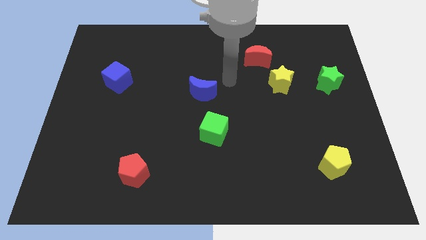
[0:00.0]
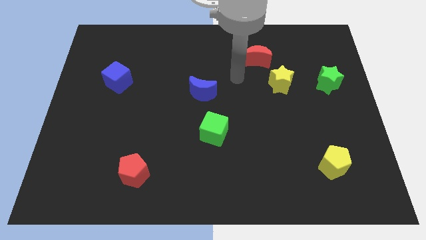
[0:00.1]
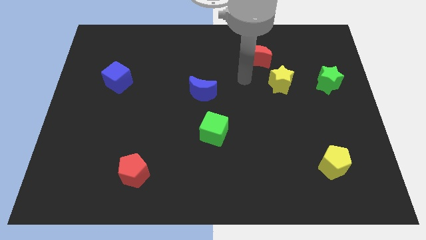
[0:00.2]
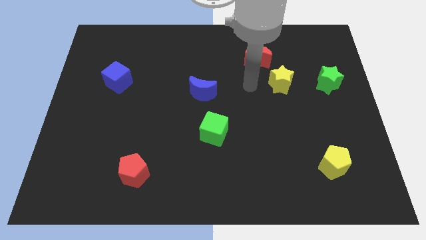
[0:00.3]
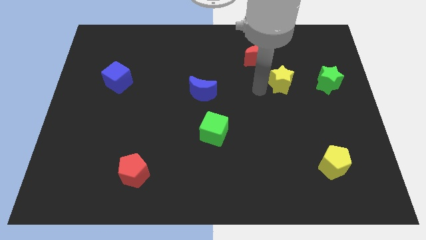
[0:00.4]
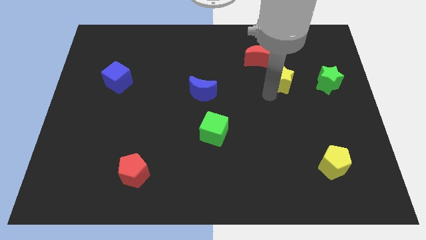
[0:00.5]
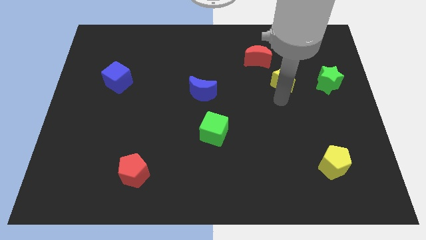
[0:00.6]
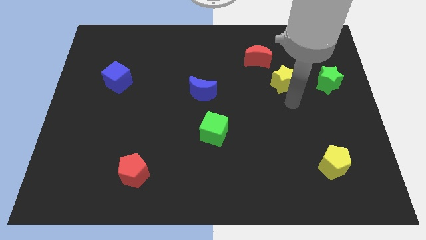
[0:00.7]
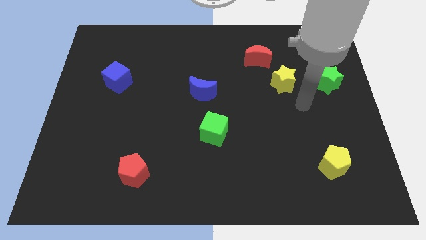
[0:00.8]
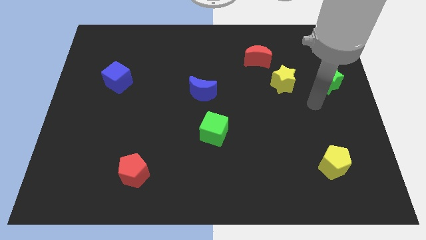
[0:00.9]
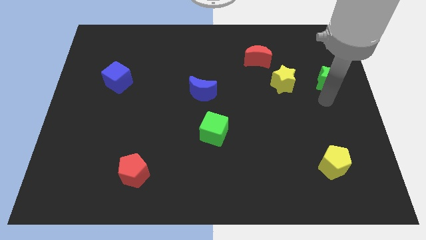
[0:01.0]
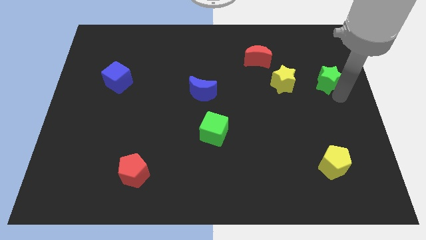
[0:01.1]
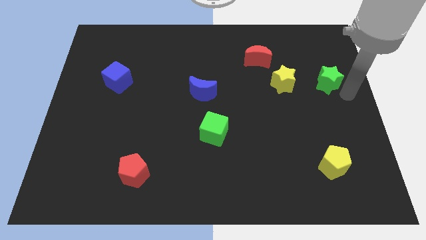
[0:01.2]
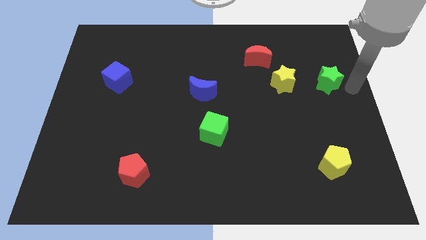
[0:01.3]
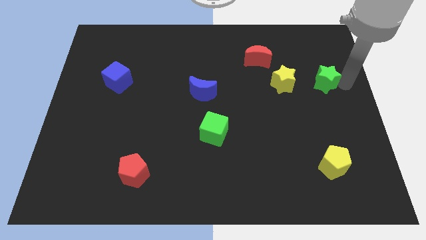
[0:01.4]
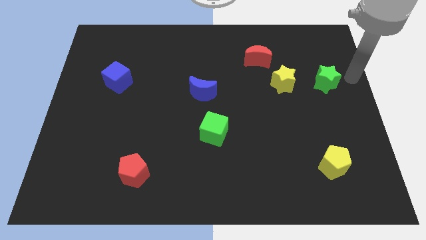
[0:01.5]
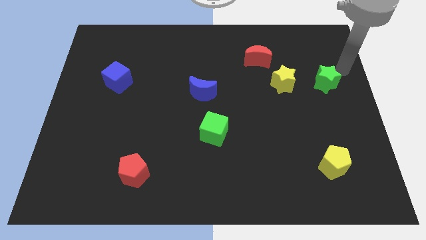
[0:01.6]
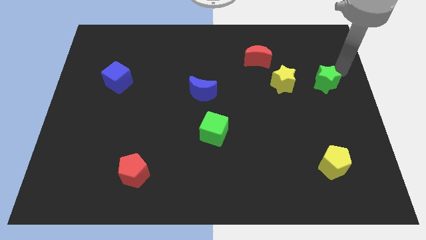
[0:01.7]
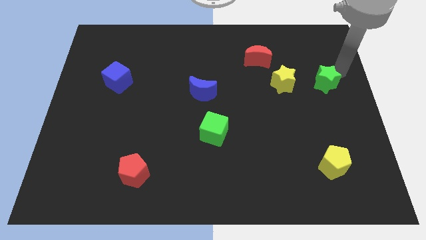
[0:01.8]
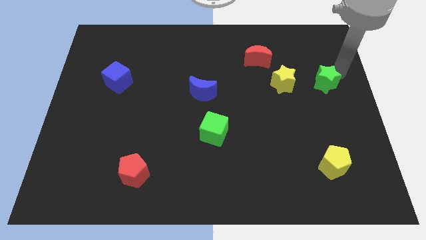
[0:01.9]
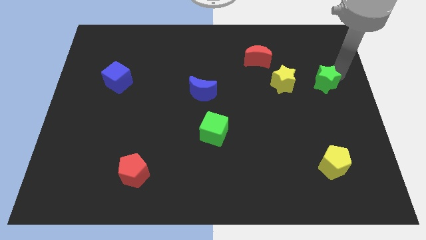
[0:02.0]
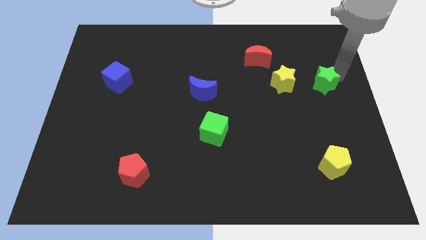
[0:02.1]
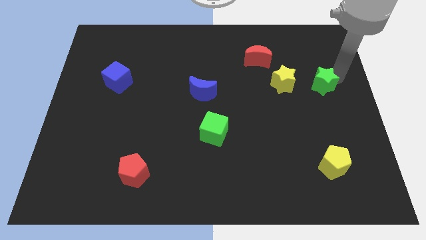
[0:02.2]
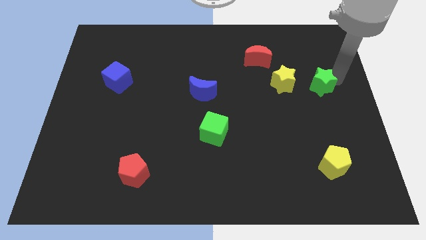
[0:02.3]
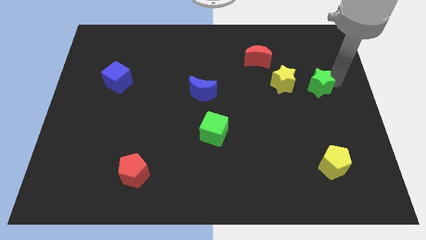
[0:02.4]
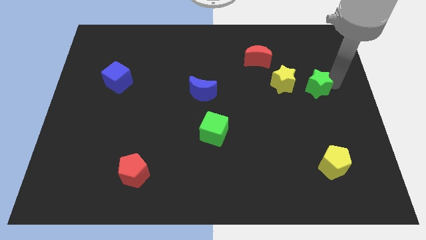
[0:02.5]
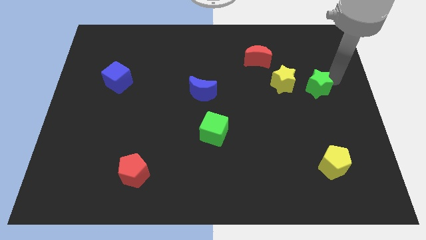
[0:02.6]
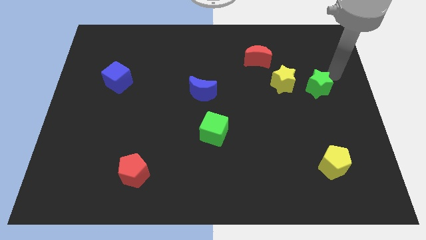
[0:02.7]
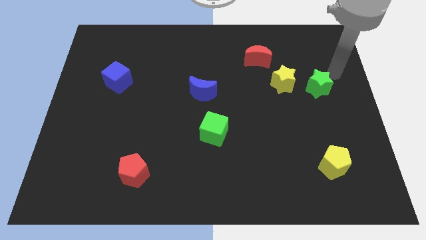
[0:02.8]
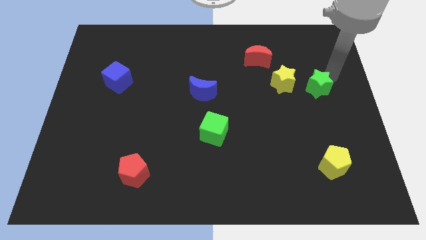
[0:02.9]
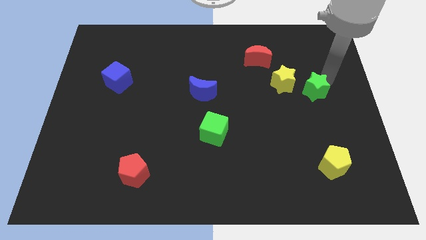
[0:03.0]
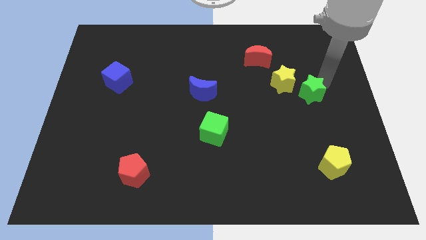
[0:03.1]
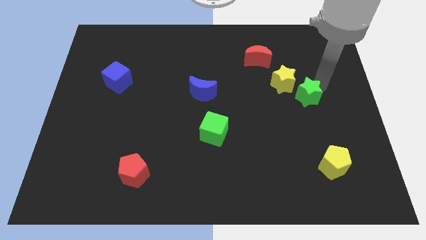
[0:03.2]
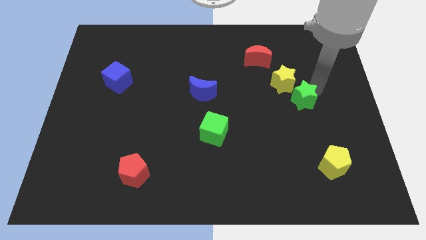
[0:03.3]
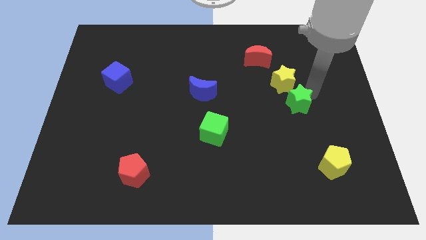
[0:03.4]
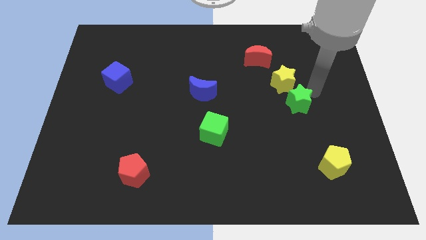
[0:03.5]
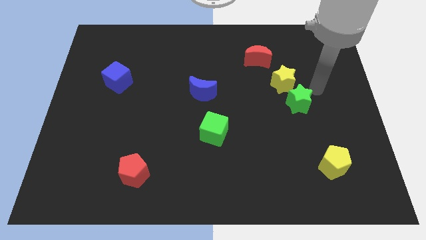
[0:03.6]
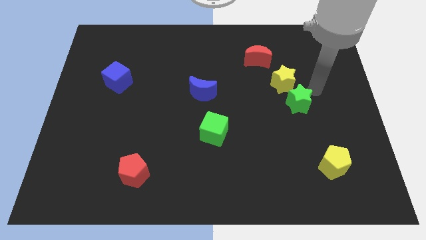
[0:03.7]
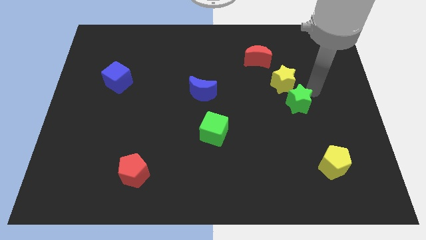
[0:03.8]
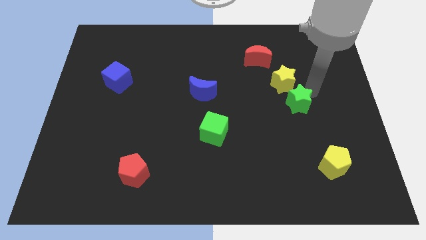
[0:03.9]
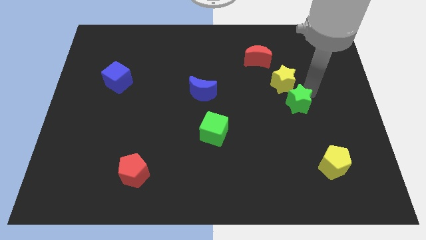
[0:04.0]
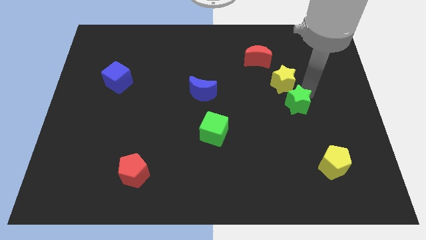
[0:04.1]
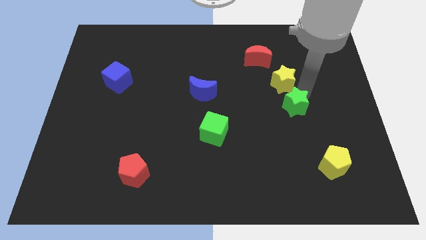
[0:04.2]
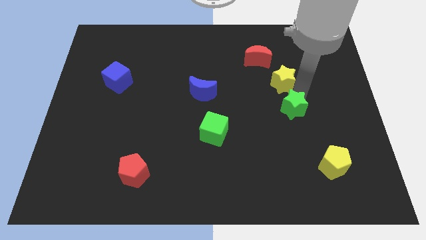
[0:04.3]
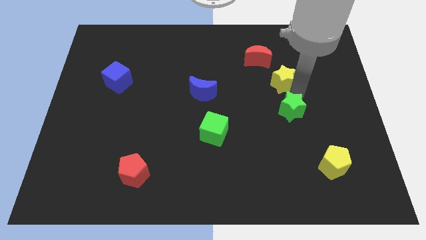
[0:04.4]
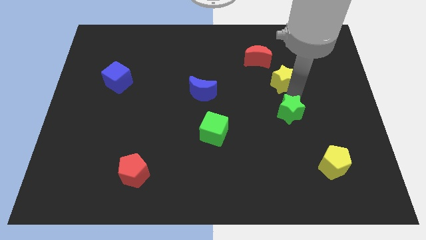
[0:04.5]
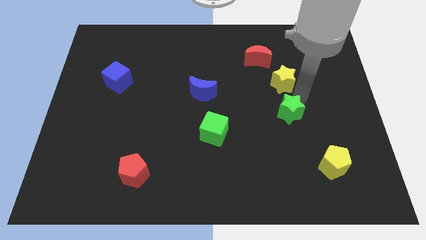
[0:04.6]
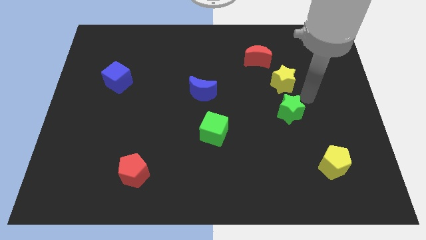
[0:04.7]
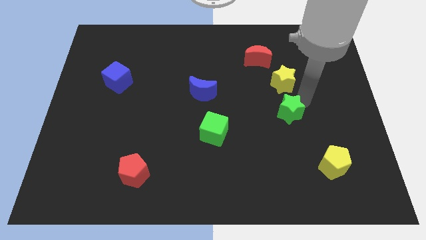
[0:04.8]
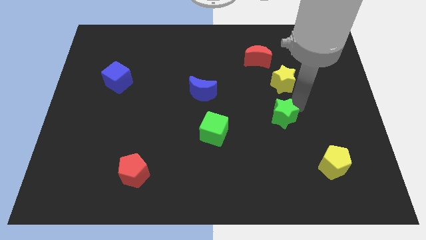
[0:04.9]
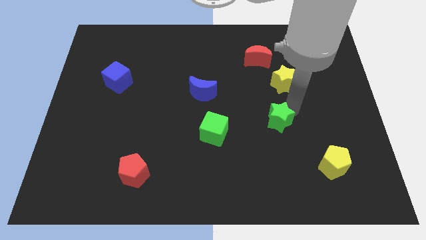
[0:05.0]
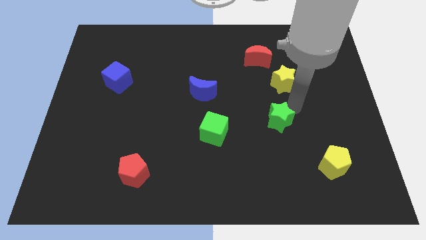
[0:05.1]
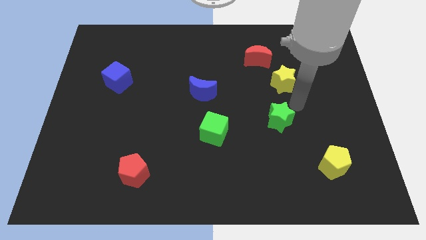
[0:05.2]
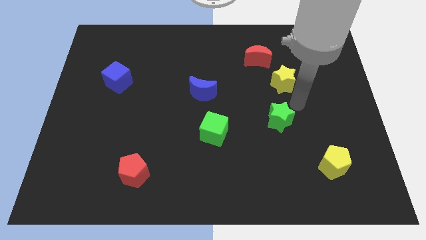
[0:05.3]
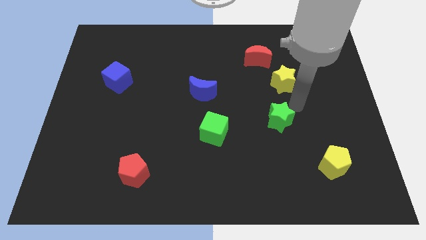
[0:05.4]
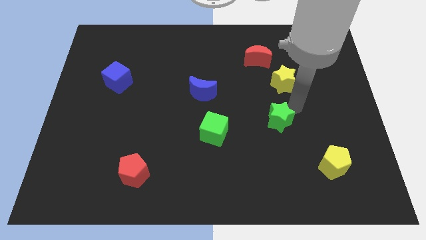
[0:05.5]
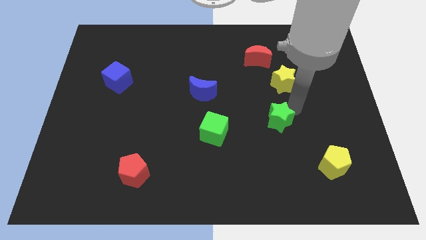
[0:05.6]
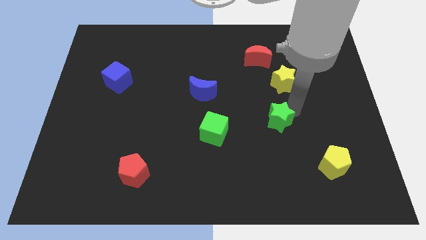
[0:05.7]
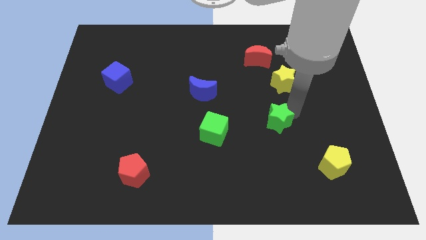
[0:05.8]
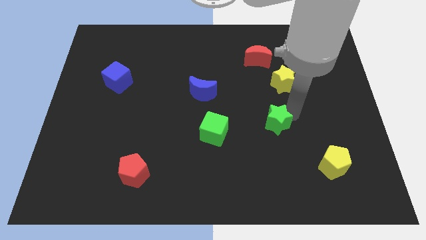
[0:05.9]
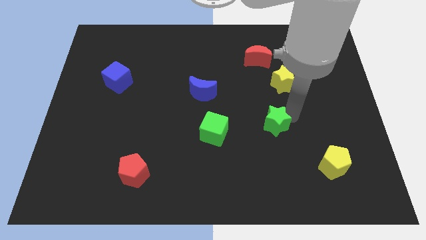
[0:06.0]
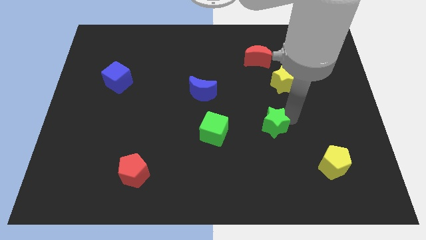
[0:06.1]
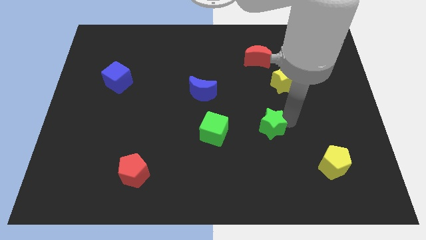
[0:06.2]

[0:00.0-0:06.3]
move the green star diagonally downwards and left

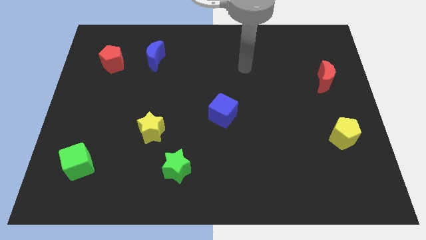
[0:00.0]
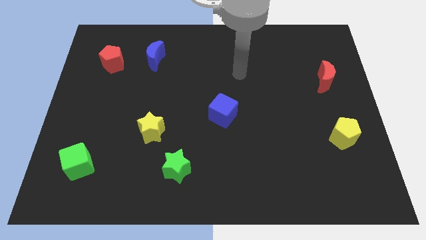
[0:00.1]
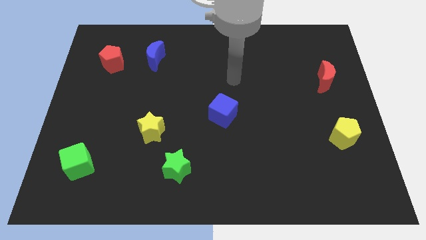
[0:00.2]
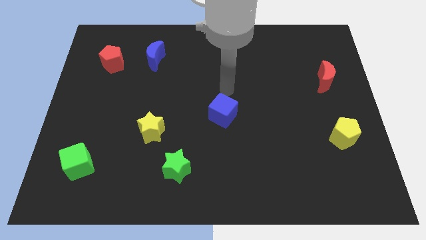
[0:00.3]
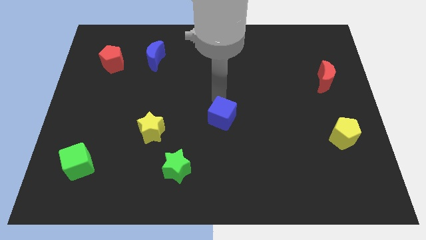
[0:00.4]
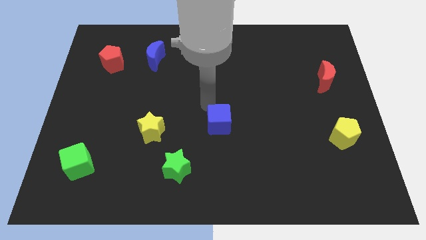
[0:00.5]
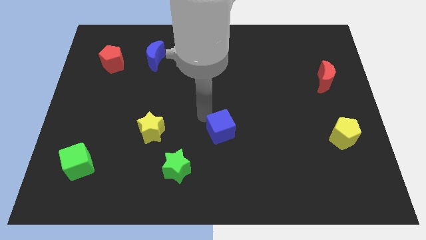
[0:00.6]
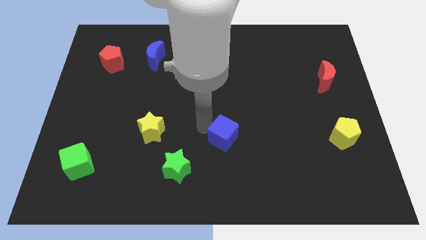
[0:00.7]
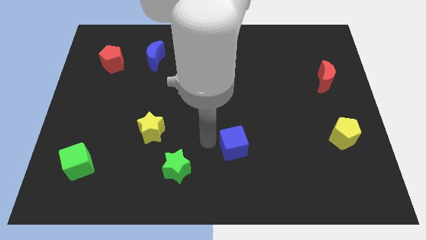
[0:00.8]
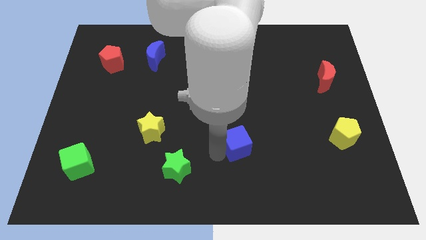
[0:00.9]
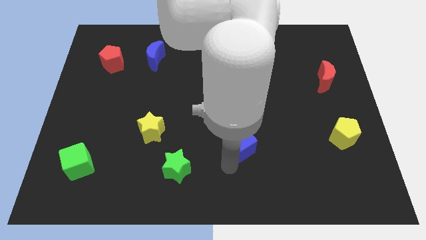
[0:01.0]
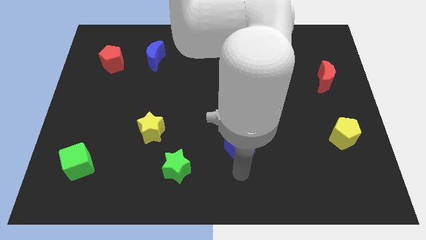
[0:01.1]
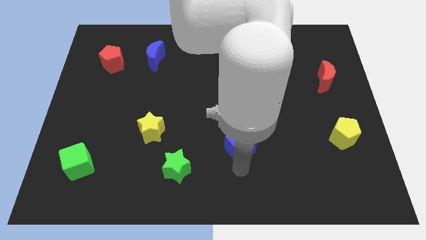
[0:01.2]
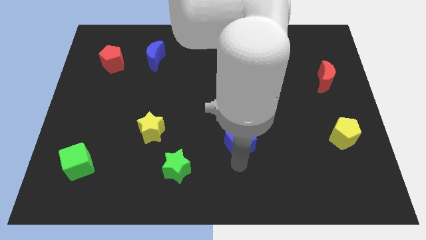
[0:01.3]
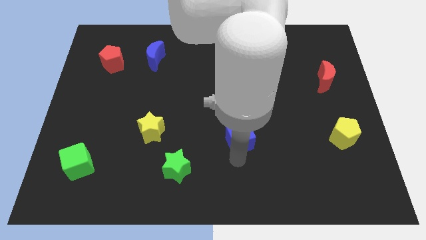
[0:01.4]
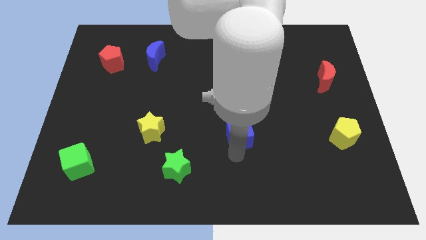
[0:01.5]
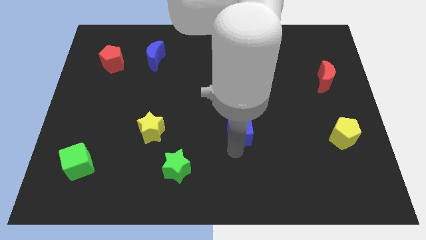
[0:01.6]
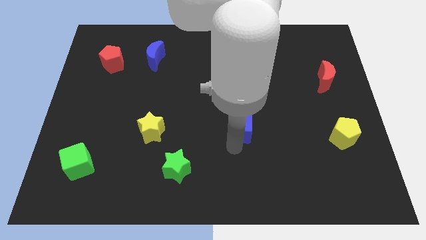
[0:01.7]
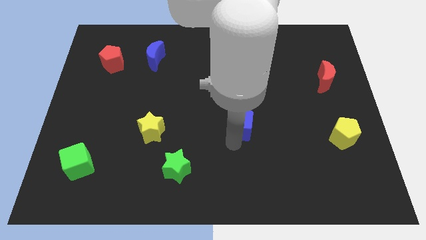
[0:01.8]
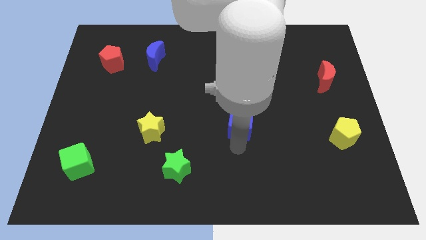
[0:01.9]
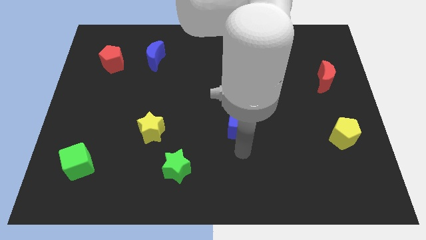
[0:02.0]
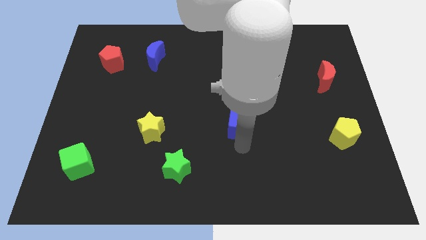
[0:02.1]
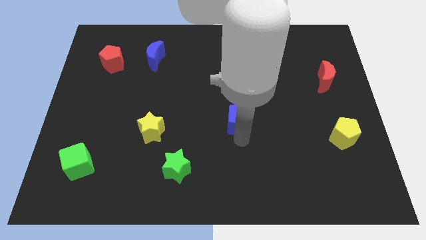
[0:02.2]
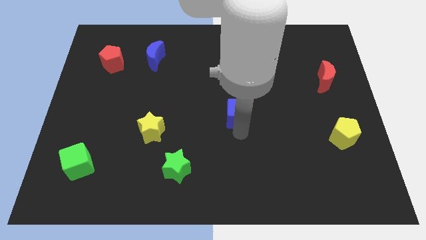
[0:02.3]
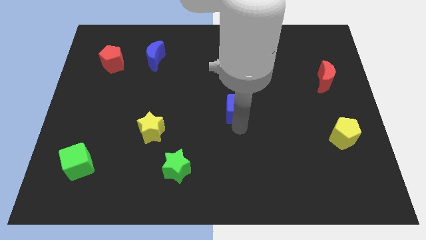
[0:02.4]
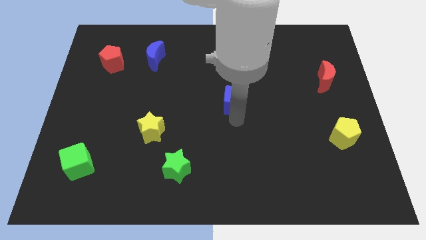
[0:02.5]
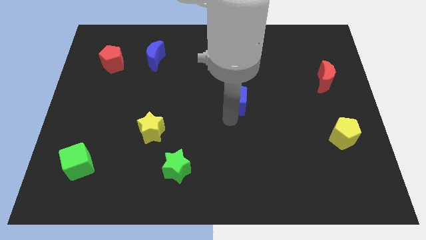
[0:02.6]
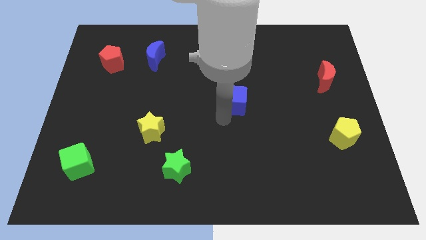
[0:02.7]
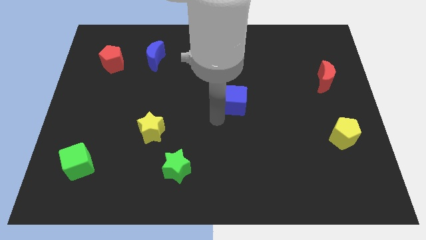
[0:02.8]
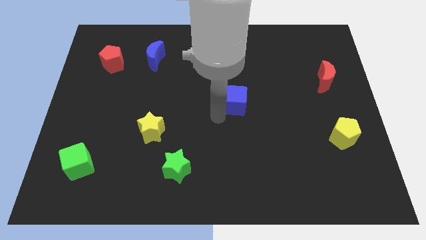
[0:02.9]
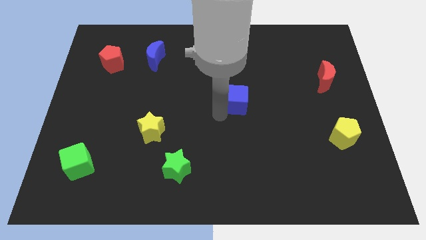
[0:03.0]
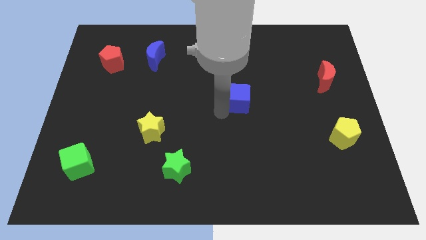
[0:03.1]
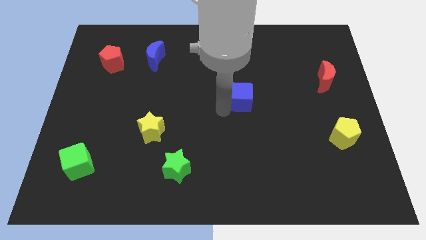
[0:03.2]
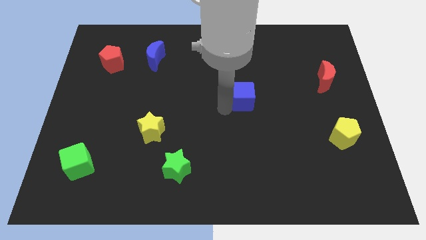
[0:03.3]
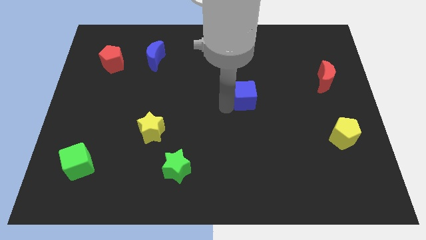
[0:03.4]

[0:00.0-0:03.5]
push the blue cube a little up and then right
